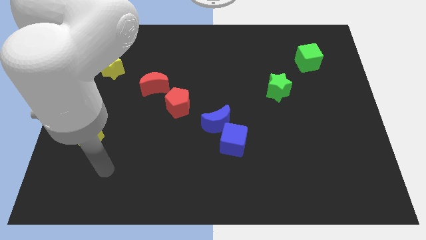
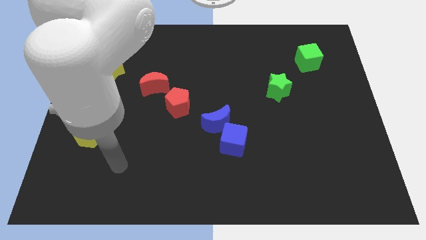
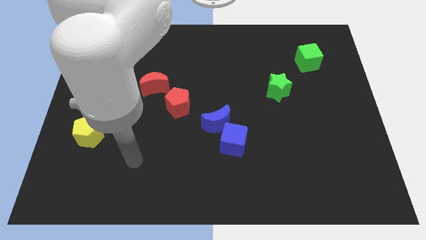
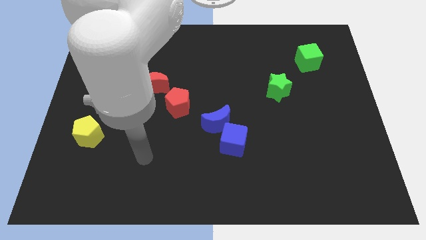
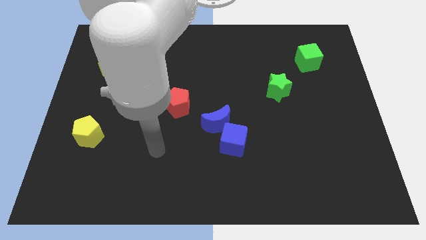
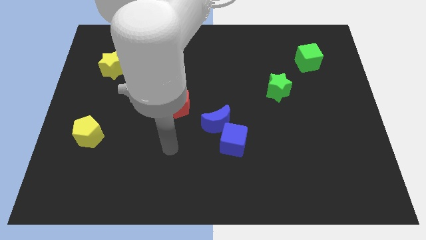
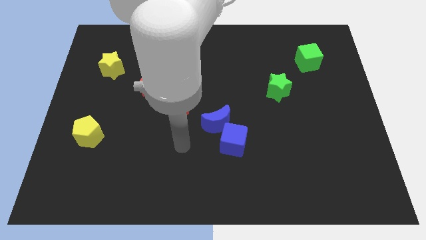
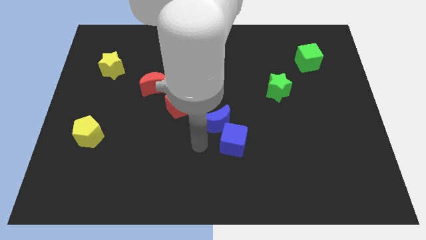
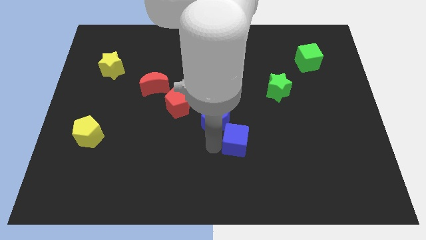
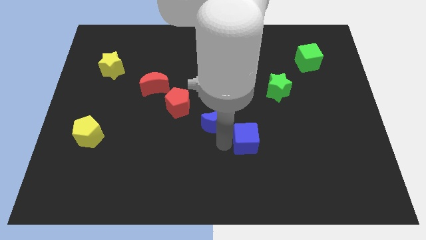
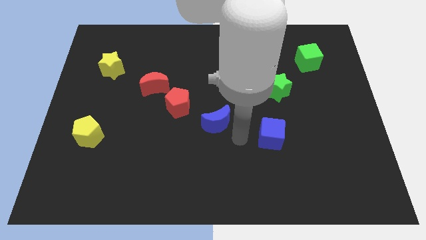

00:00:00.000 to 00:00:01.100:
pull the blue moon apart from the blue cube

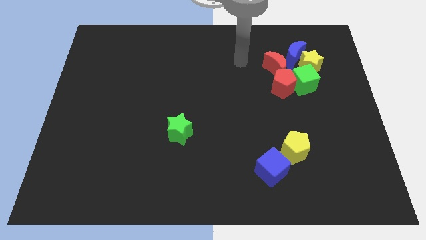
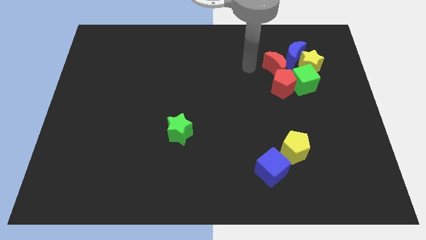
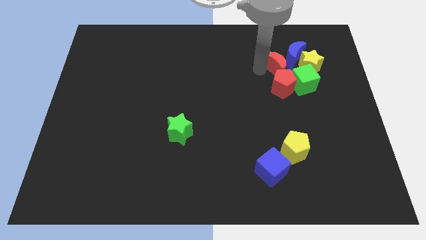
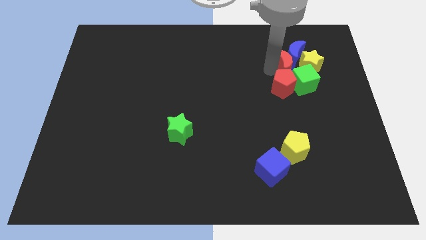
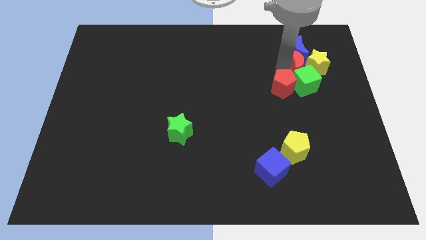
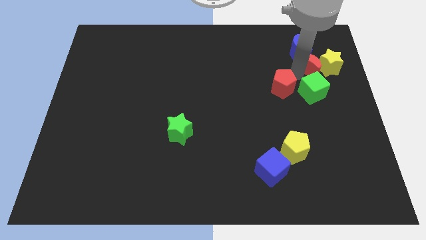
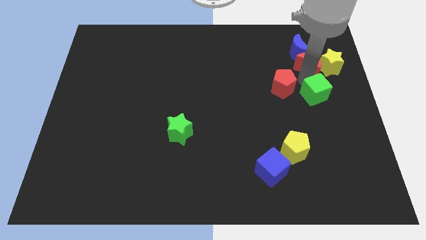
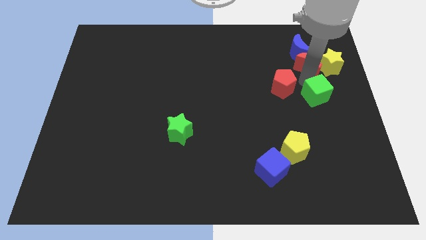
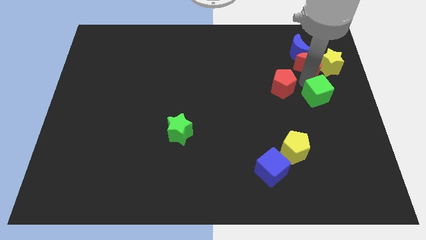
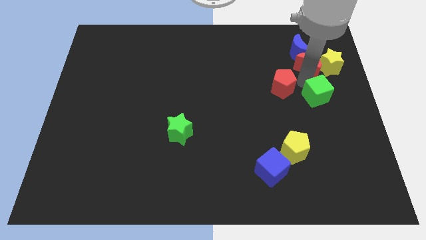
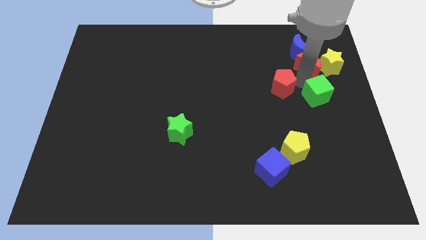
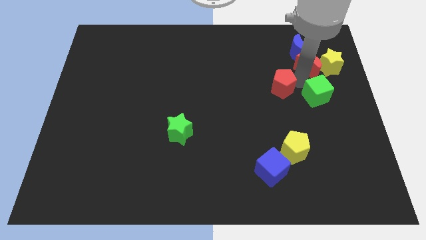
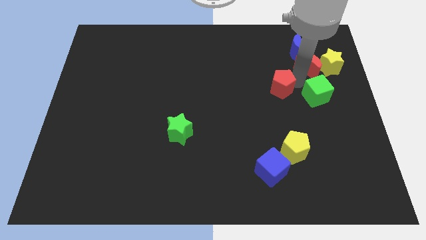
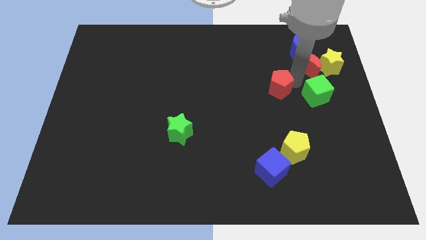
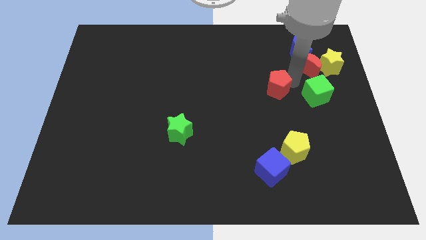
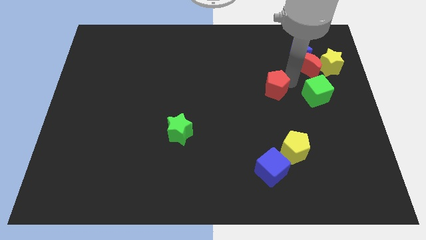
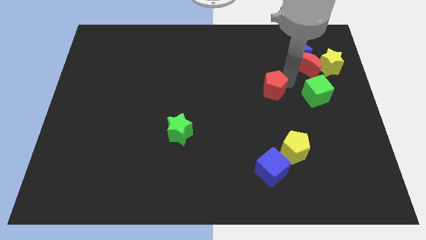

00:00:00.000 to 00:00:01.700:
pull the red pentagon apart from the green cube and red moon

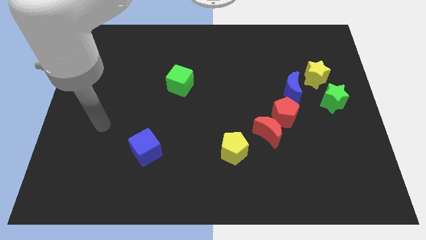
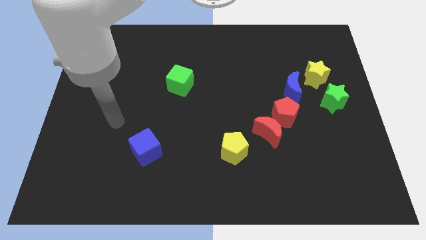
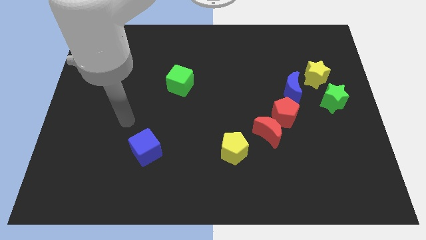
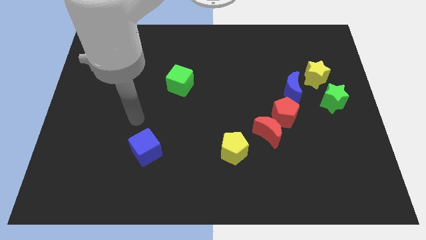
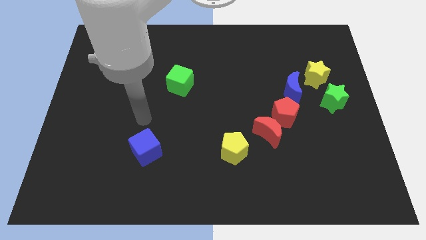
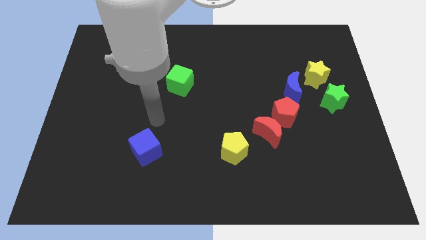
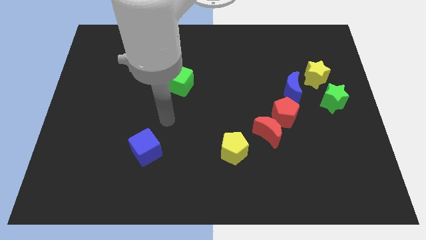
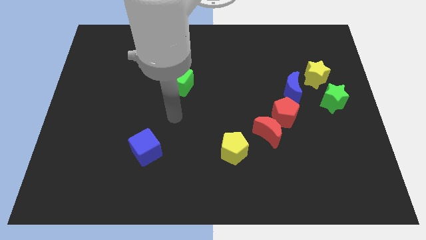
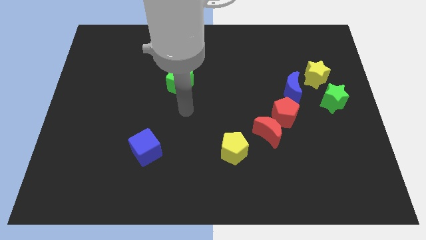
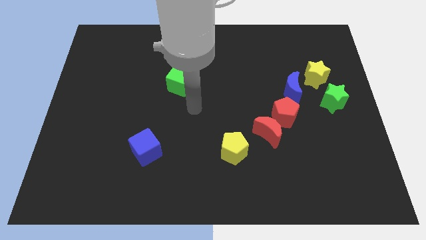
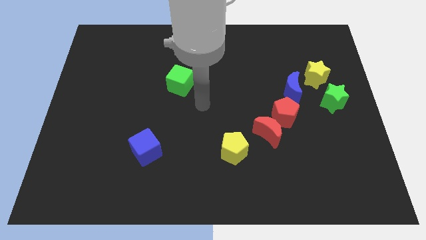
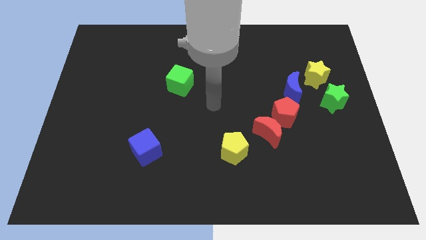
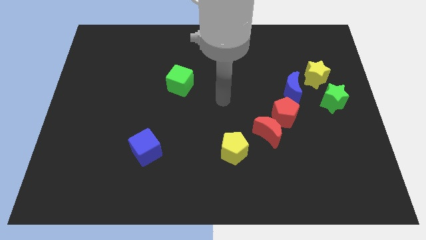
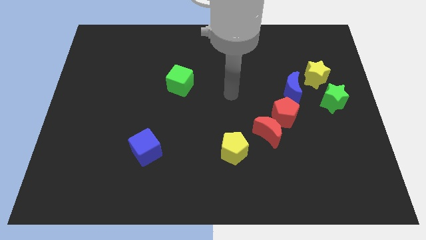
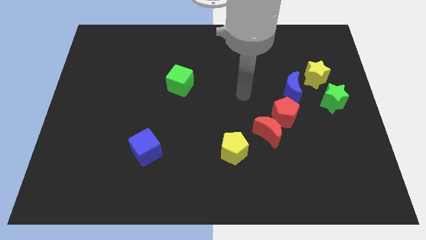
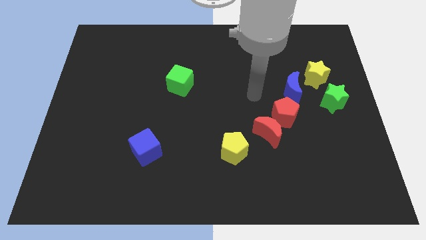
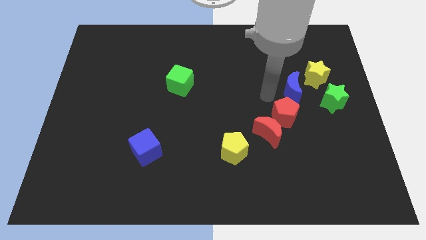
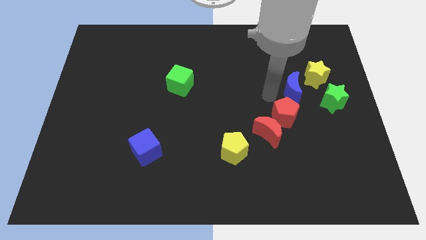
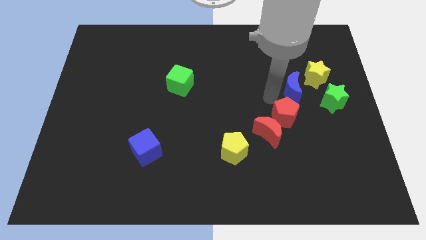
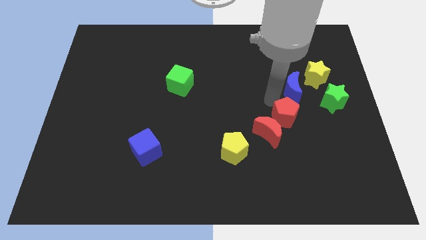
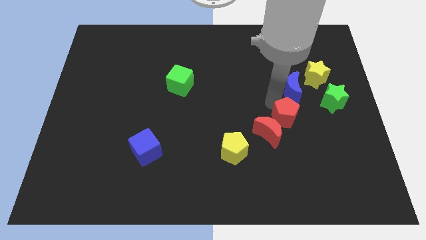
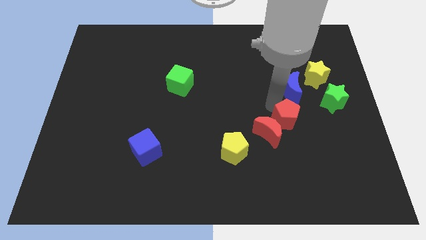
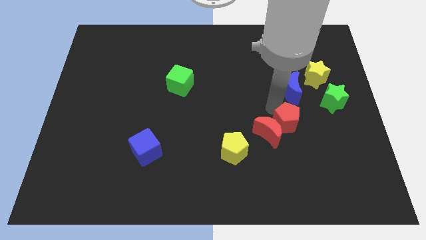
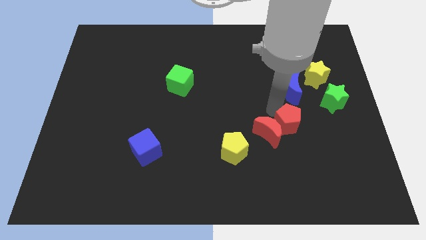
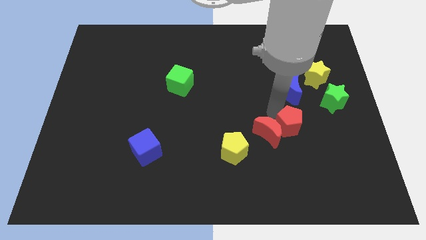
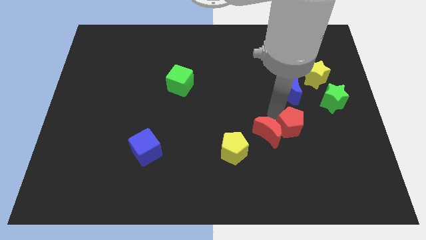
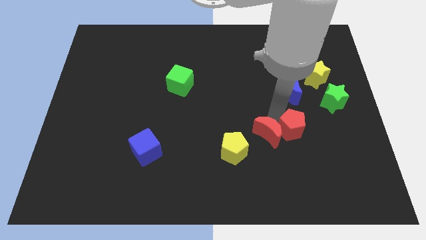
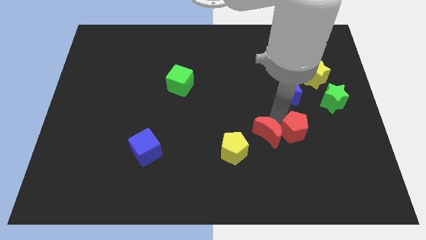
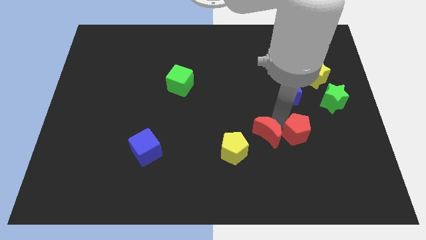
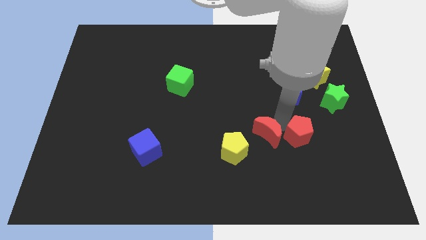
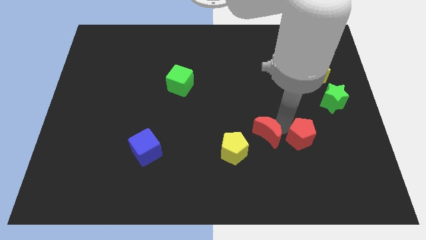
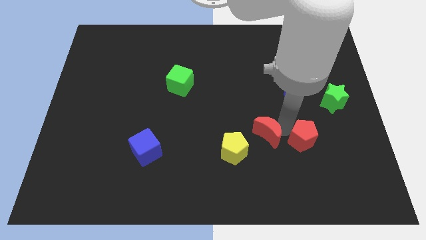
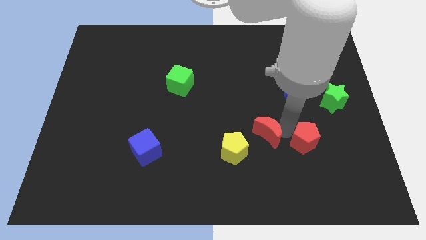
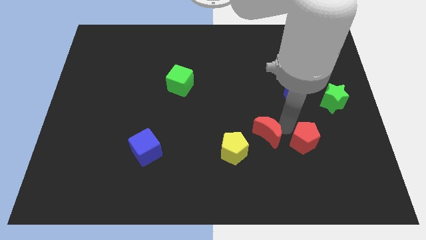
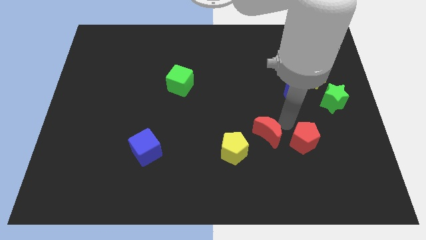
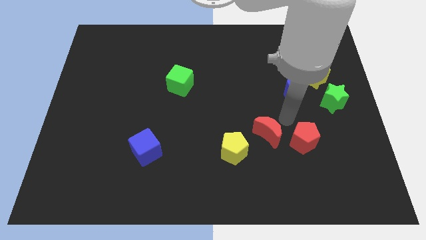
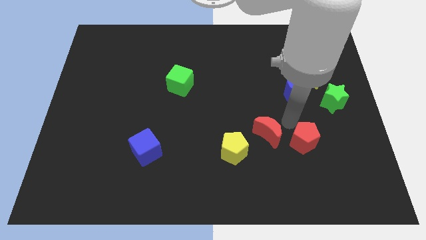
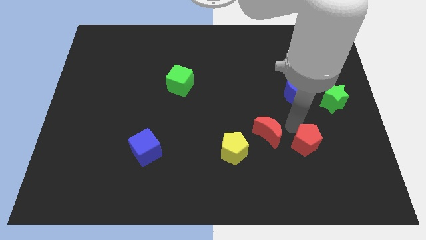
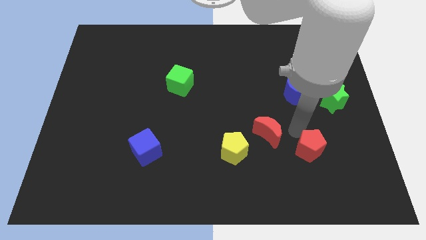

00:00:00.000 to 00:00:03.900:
separate the red pentagon from the red moon and blue moon

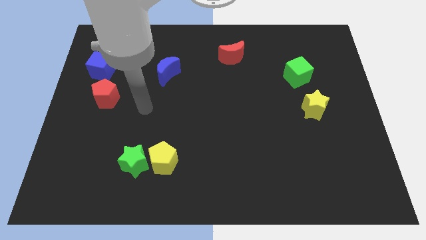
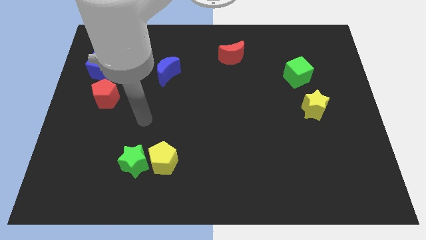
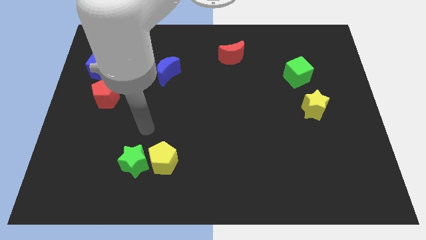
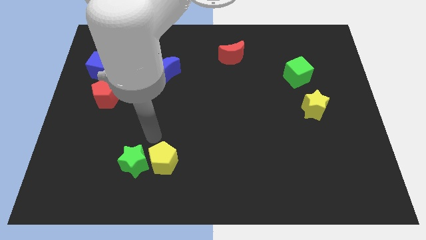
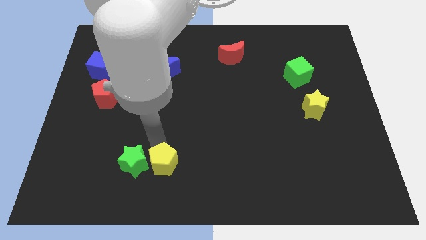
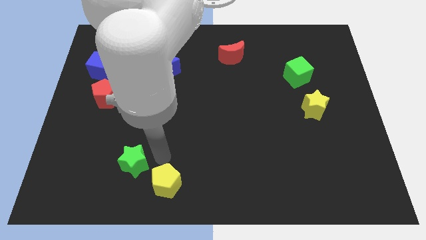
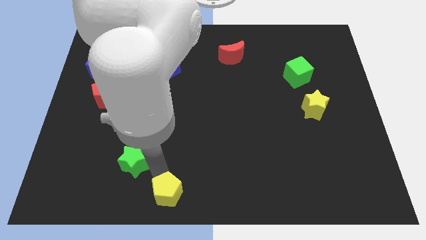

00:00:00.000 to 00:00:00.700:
pull the green star apart from the yellow pentagon

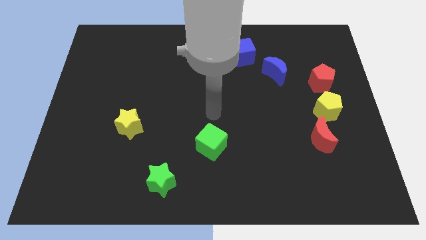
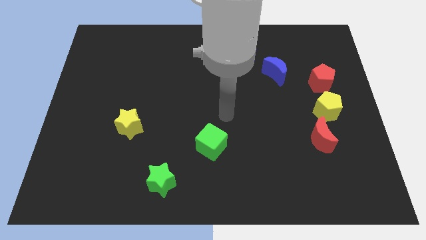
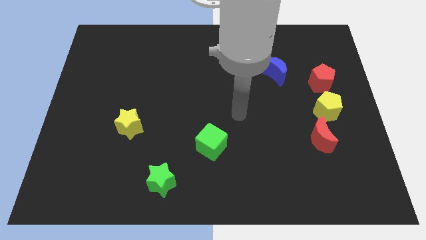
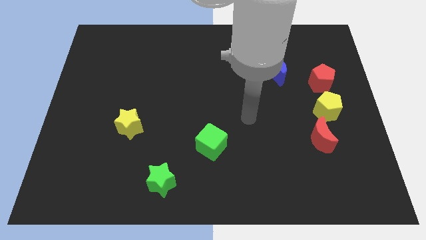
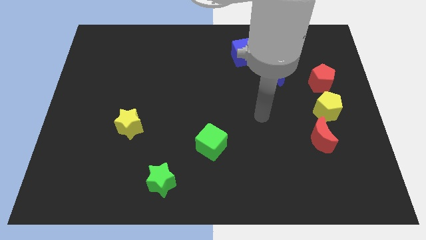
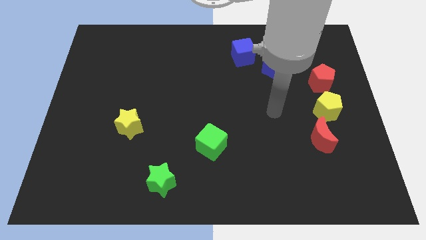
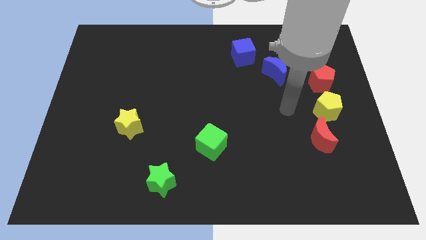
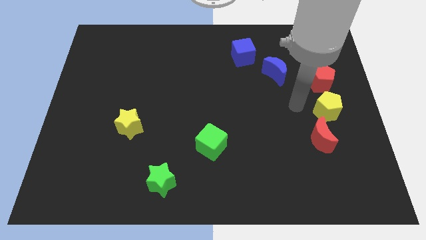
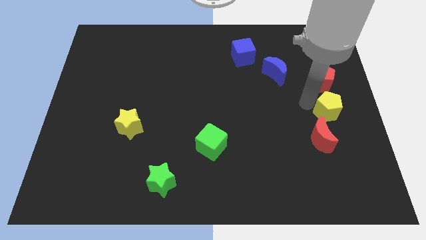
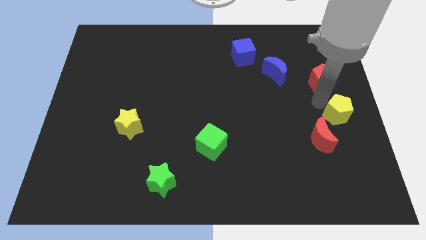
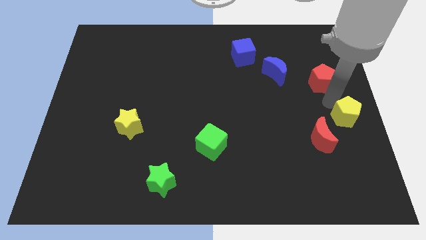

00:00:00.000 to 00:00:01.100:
move the red pentagon away from the yellow pentagon

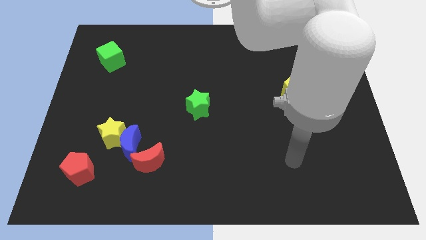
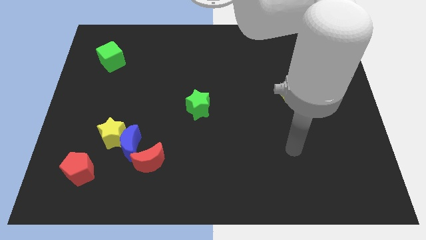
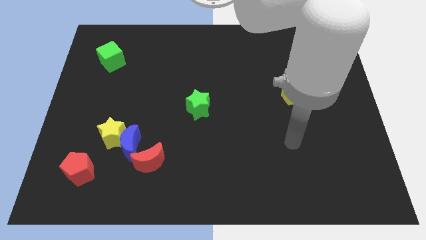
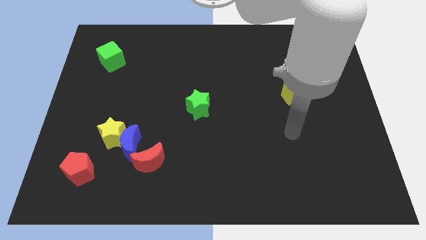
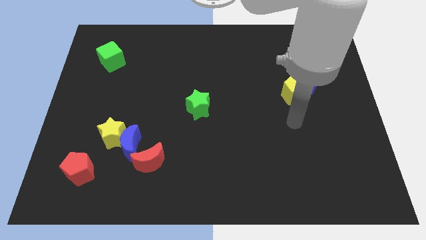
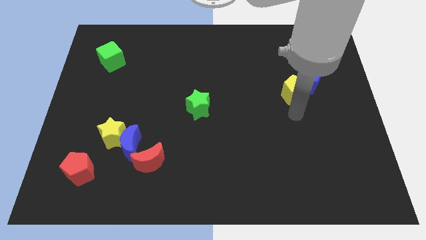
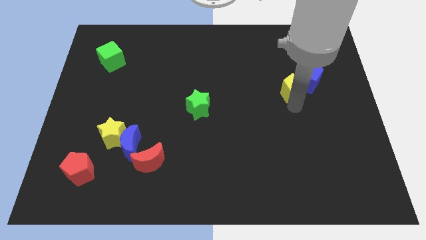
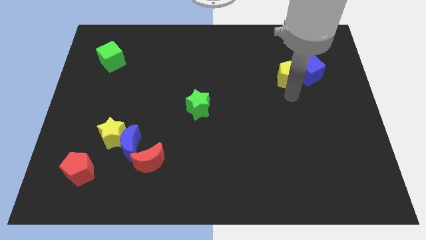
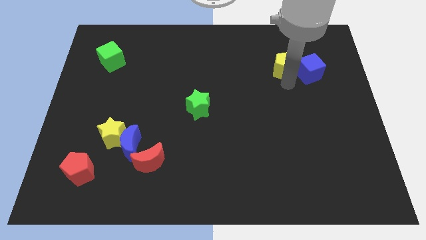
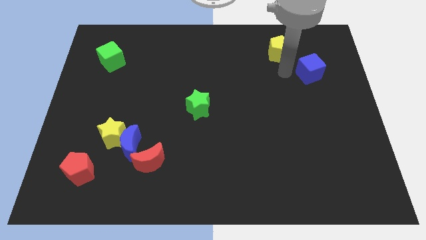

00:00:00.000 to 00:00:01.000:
move the blue cube away from the yellow pentagon

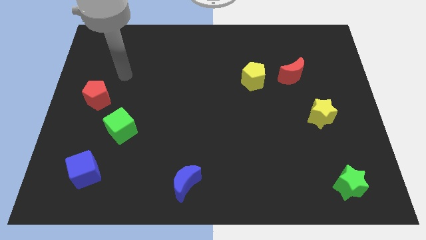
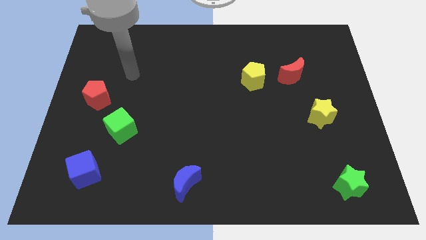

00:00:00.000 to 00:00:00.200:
separate the red moon from the yellow pentagon
